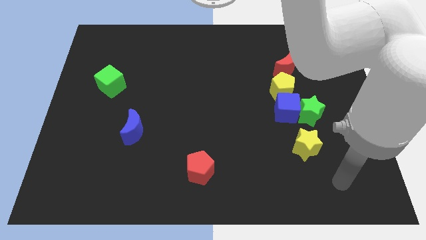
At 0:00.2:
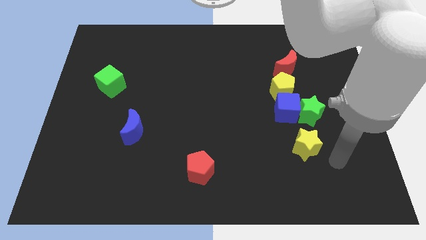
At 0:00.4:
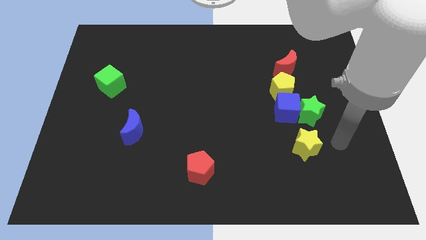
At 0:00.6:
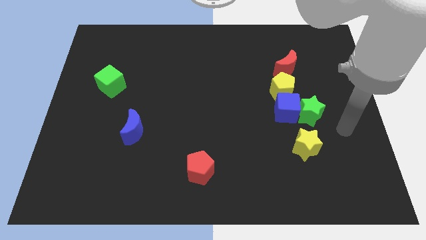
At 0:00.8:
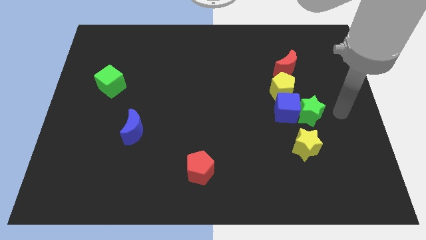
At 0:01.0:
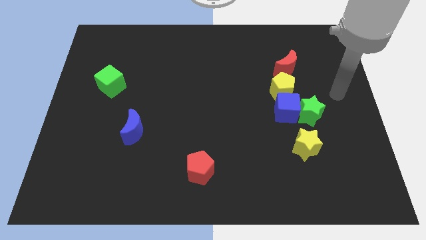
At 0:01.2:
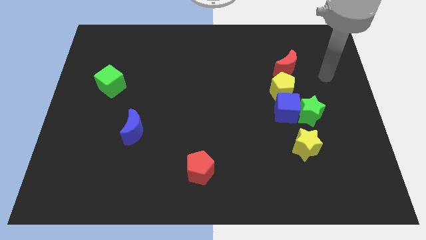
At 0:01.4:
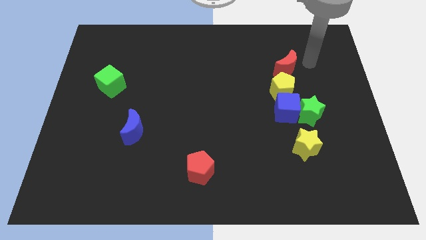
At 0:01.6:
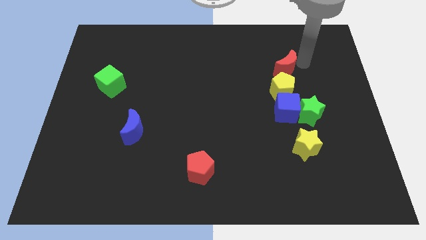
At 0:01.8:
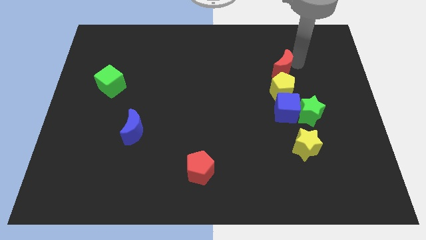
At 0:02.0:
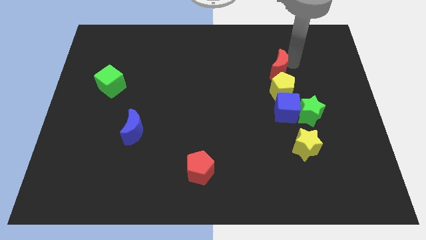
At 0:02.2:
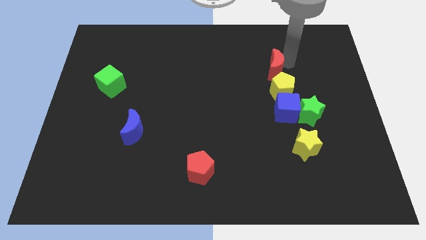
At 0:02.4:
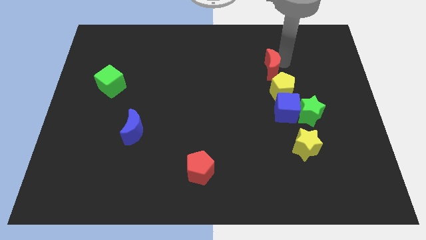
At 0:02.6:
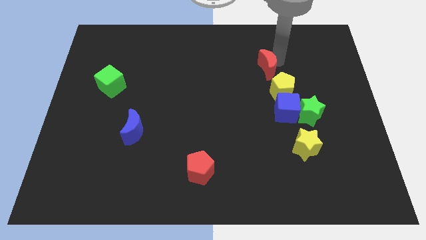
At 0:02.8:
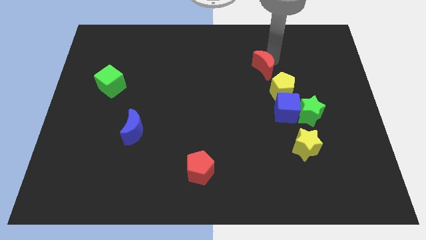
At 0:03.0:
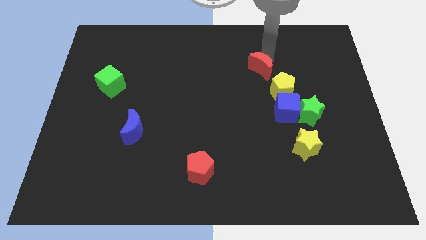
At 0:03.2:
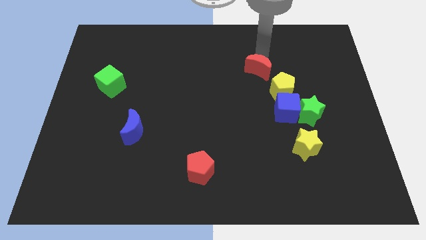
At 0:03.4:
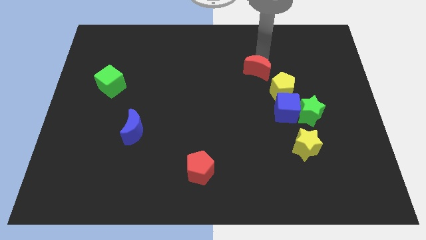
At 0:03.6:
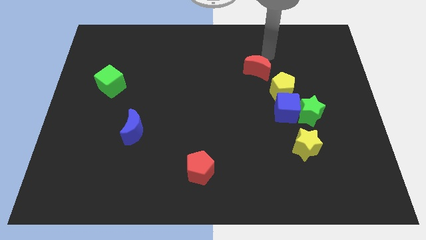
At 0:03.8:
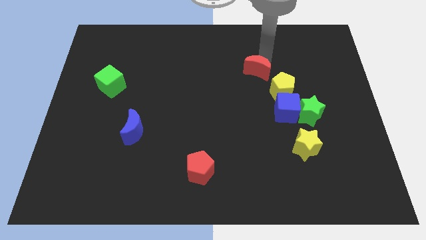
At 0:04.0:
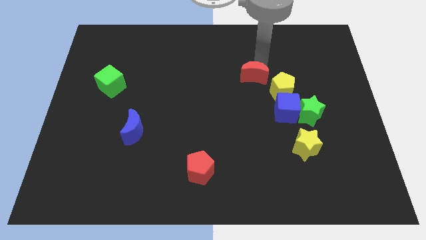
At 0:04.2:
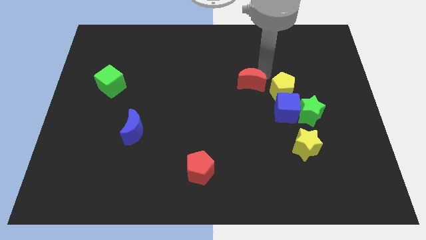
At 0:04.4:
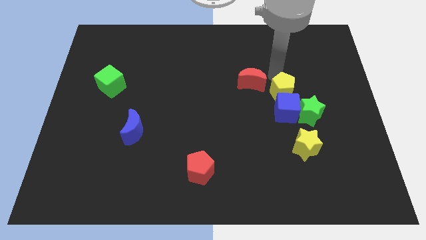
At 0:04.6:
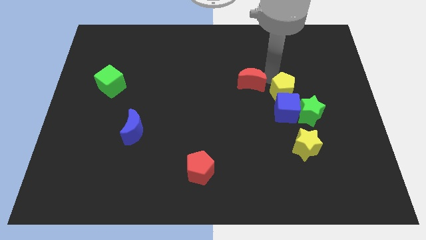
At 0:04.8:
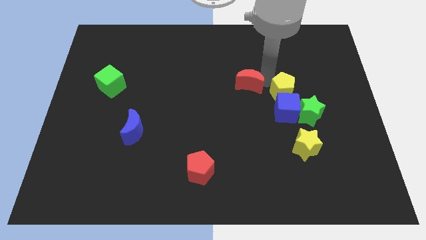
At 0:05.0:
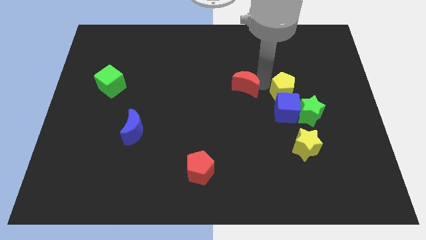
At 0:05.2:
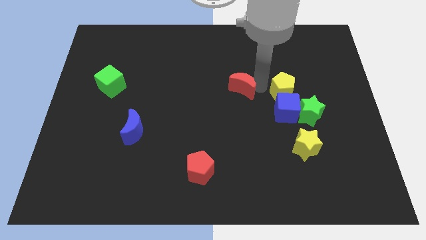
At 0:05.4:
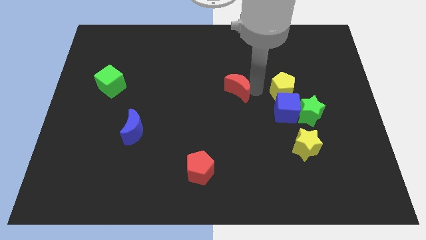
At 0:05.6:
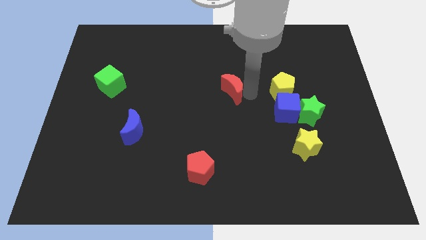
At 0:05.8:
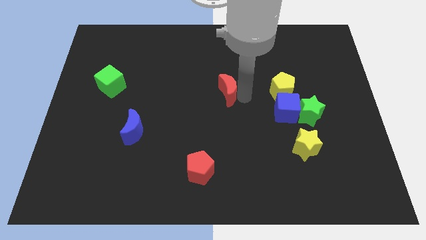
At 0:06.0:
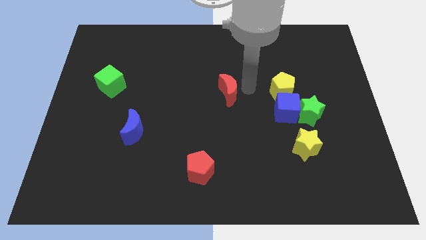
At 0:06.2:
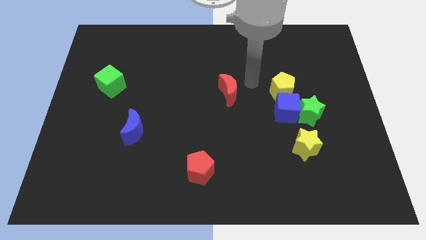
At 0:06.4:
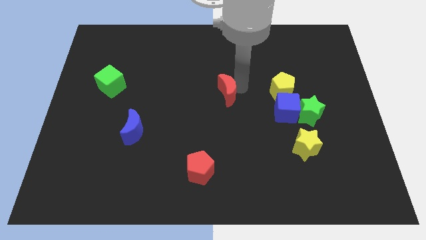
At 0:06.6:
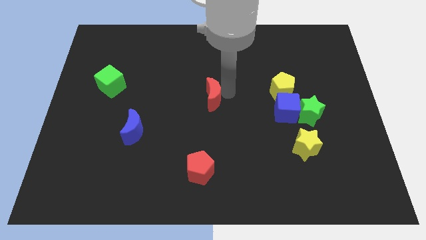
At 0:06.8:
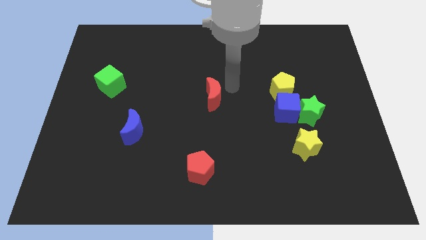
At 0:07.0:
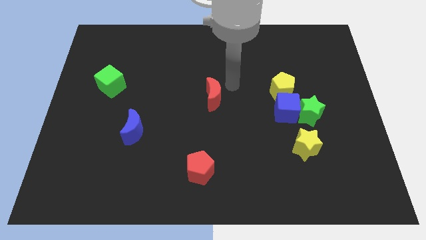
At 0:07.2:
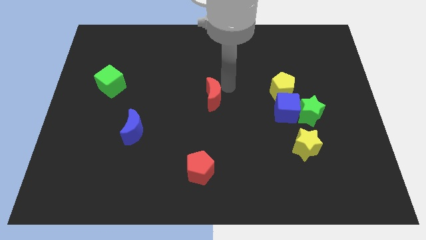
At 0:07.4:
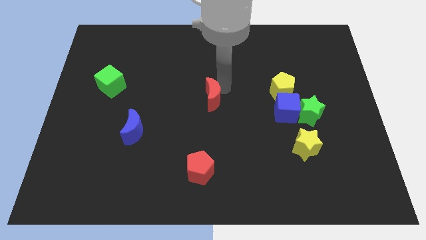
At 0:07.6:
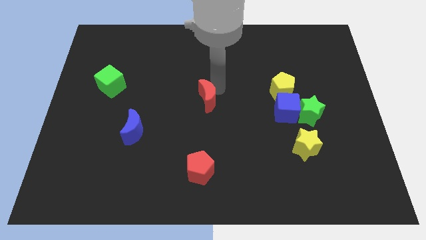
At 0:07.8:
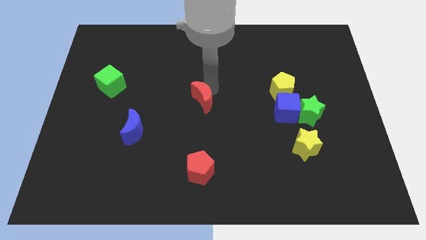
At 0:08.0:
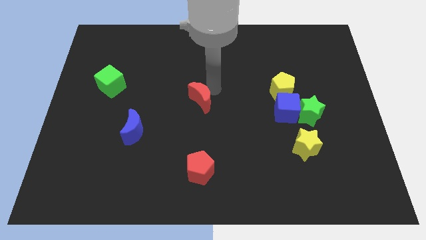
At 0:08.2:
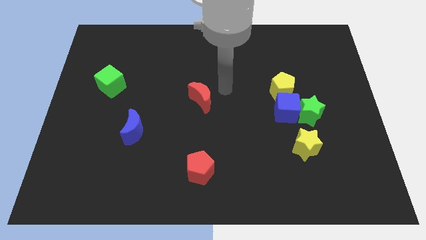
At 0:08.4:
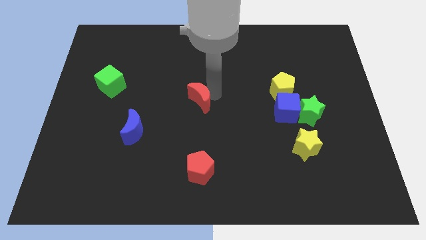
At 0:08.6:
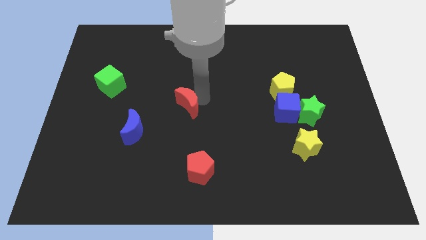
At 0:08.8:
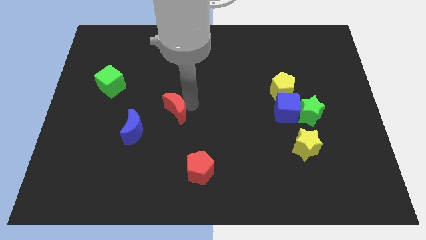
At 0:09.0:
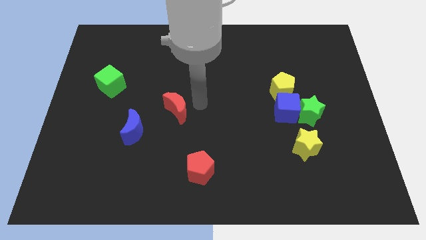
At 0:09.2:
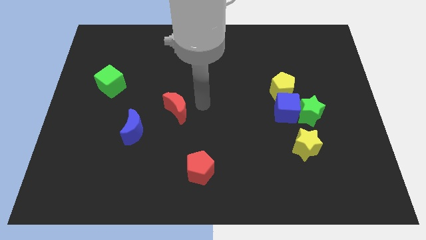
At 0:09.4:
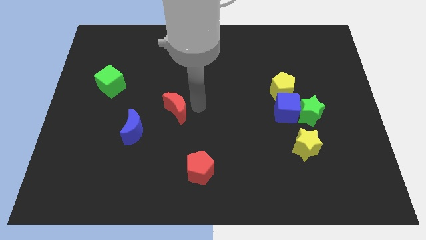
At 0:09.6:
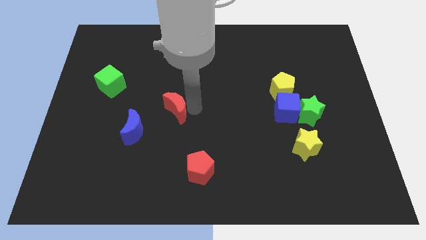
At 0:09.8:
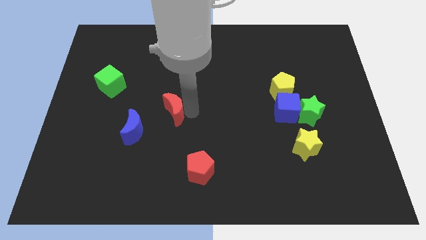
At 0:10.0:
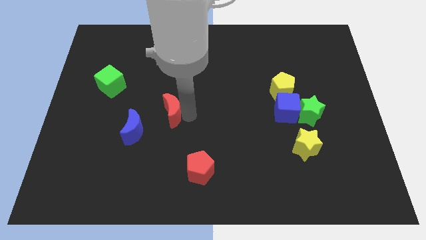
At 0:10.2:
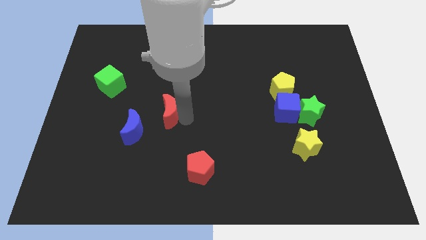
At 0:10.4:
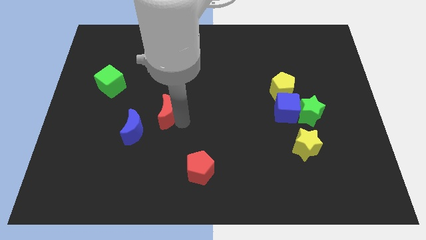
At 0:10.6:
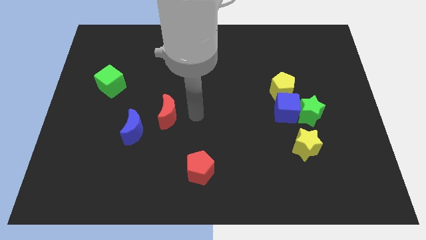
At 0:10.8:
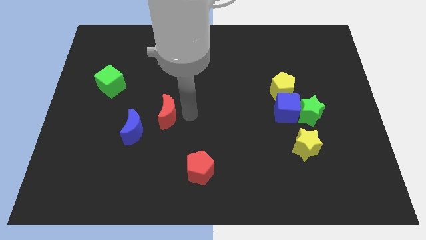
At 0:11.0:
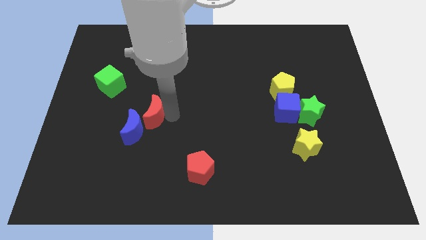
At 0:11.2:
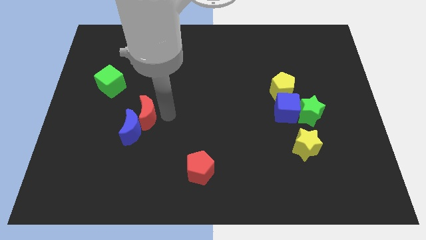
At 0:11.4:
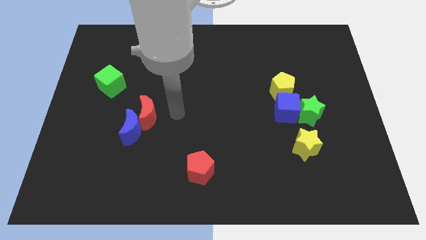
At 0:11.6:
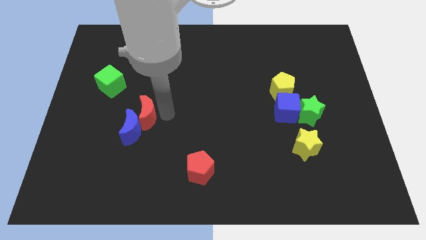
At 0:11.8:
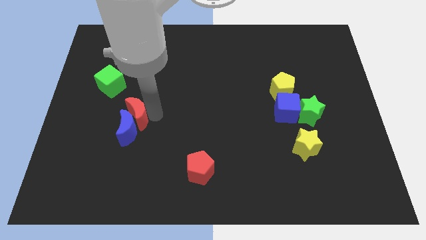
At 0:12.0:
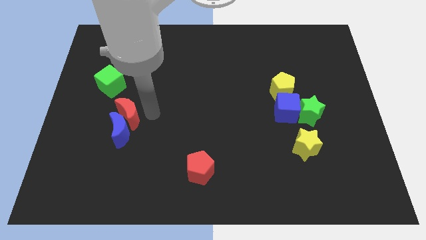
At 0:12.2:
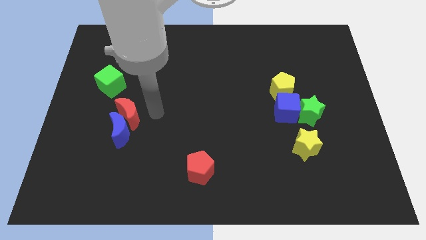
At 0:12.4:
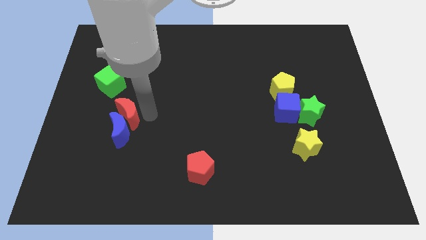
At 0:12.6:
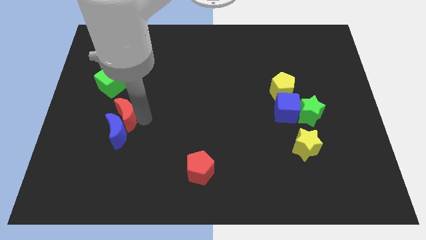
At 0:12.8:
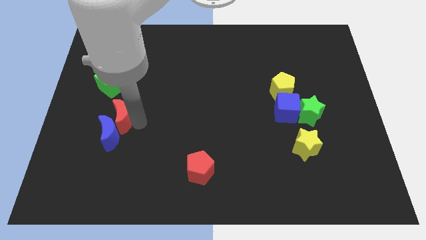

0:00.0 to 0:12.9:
move the red moon to the bottom side of the green cube
